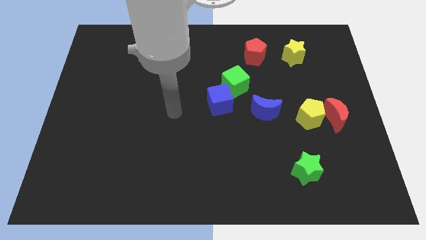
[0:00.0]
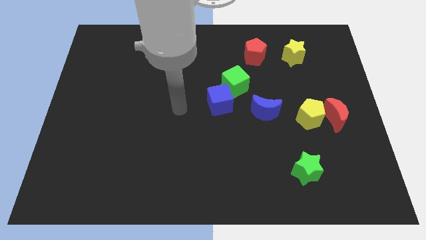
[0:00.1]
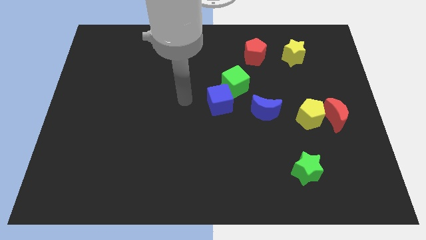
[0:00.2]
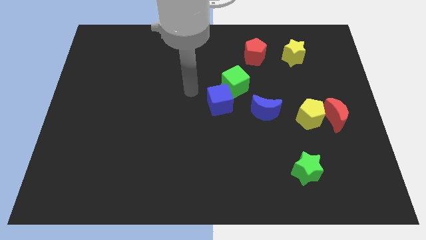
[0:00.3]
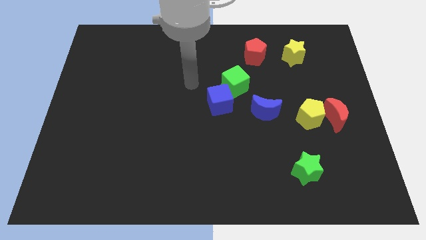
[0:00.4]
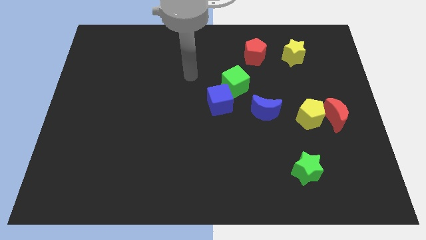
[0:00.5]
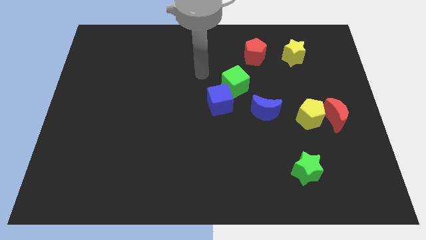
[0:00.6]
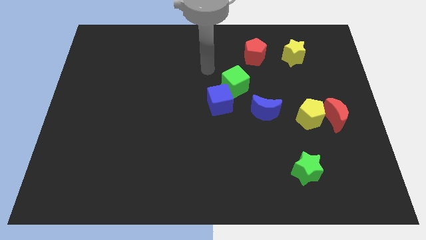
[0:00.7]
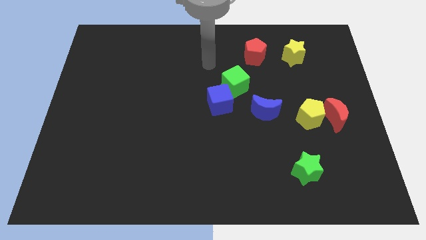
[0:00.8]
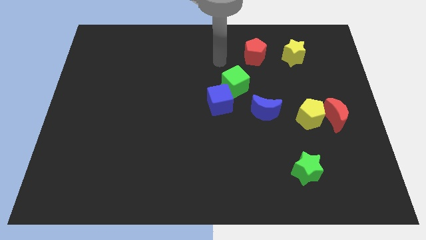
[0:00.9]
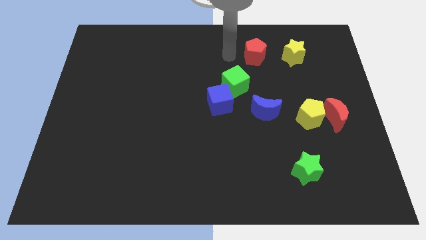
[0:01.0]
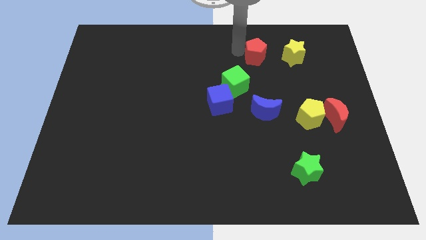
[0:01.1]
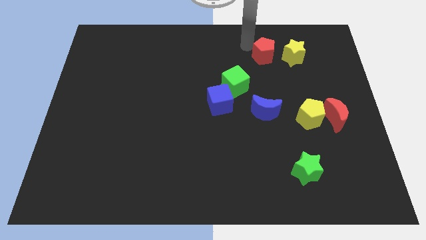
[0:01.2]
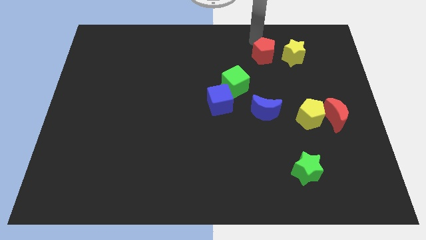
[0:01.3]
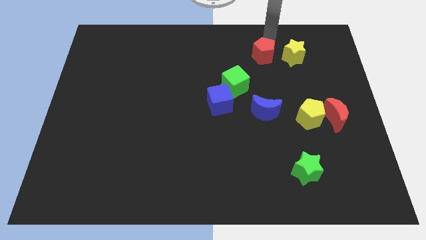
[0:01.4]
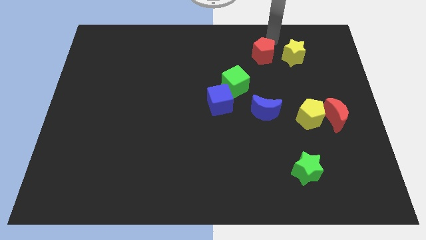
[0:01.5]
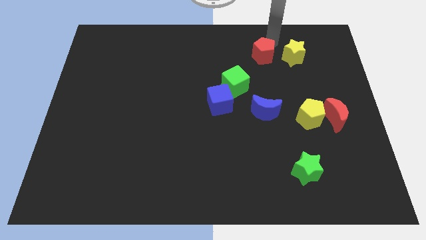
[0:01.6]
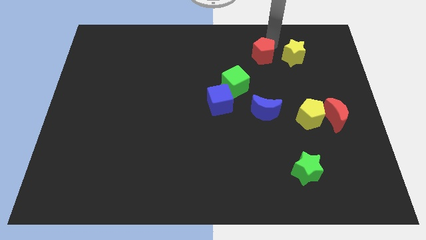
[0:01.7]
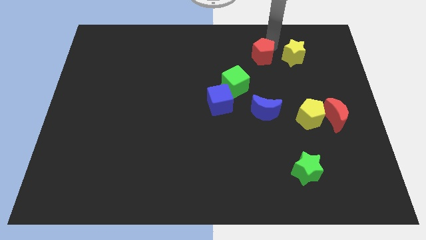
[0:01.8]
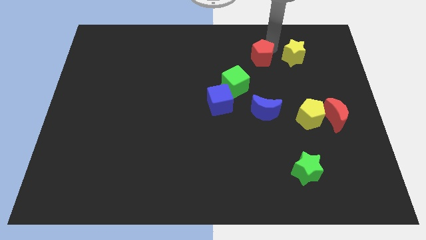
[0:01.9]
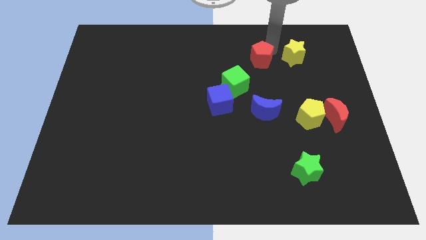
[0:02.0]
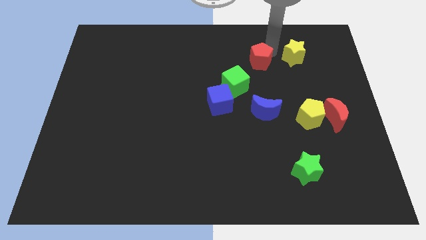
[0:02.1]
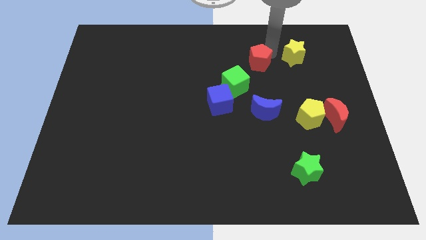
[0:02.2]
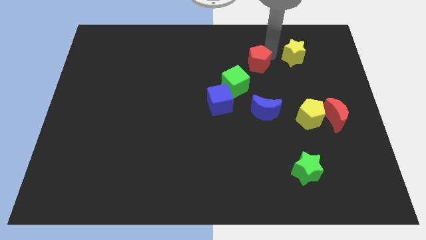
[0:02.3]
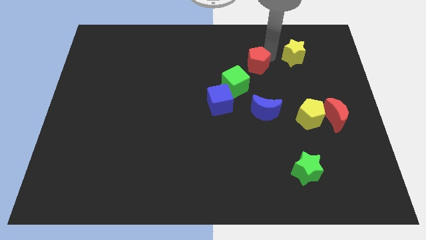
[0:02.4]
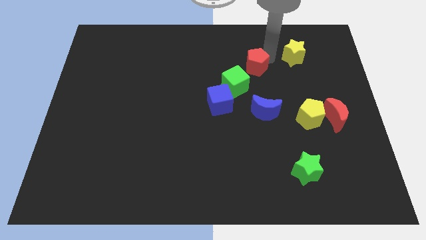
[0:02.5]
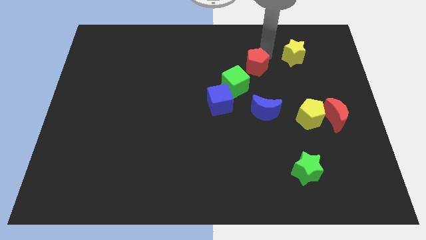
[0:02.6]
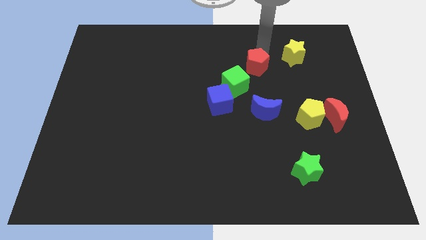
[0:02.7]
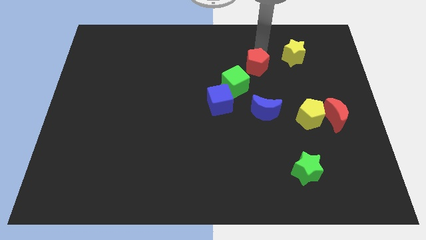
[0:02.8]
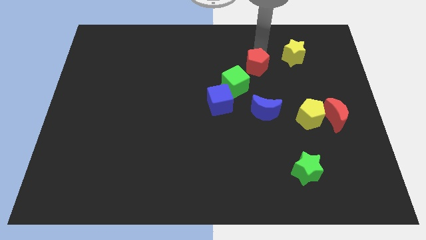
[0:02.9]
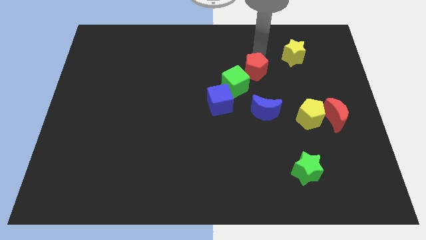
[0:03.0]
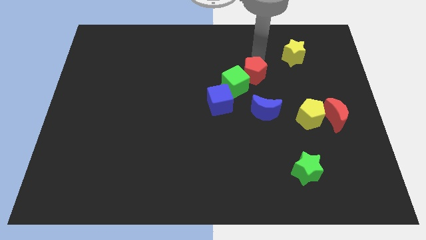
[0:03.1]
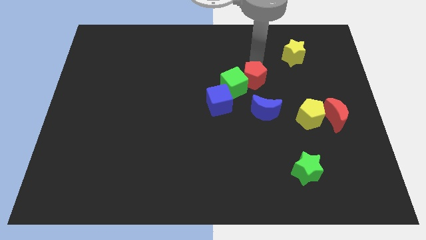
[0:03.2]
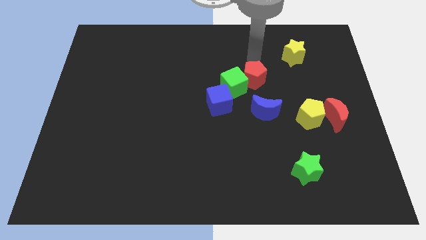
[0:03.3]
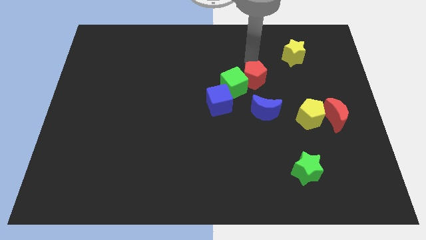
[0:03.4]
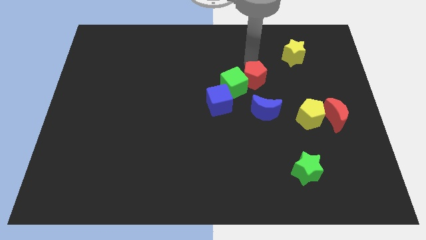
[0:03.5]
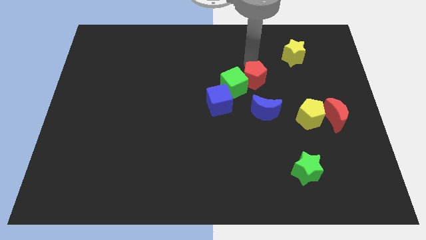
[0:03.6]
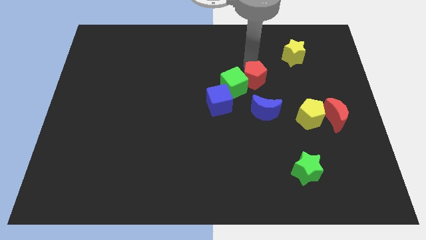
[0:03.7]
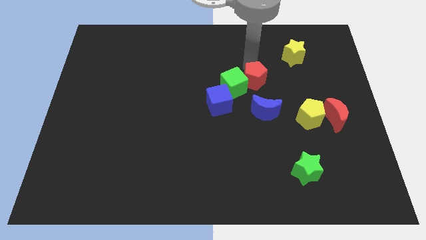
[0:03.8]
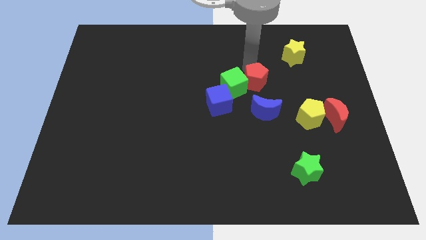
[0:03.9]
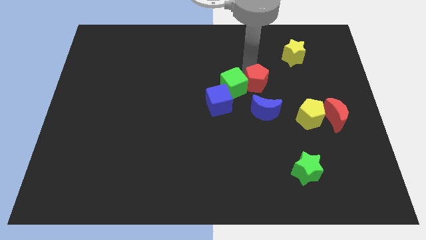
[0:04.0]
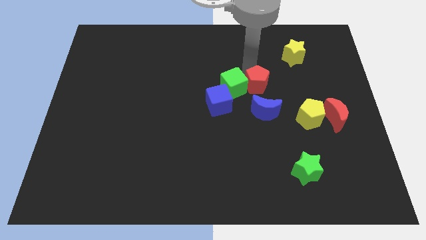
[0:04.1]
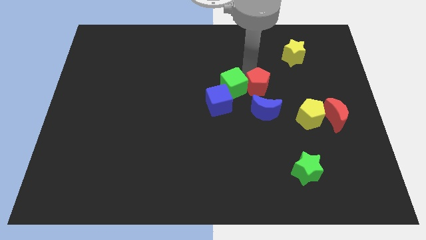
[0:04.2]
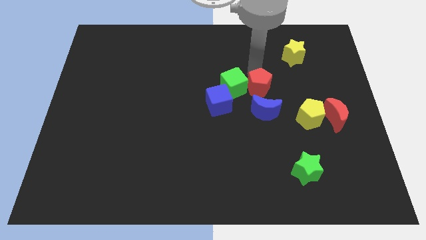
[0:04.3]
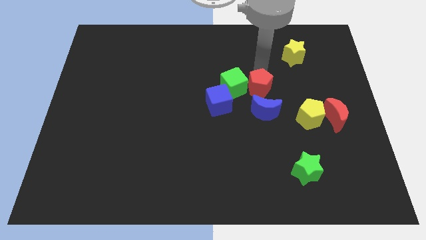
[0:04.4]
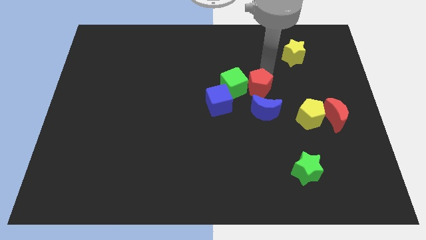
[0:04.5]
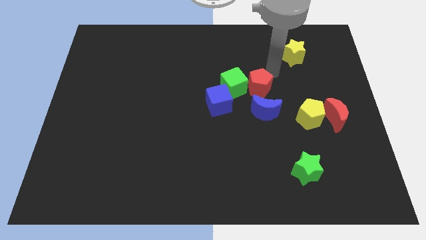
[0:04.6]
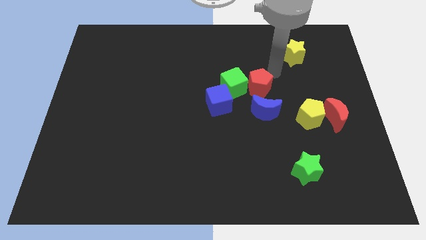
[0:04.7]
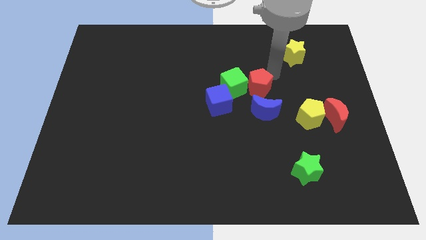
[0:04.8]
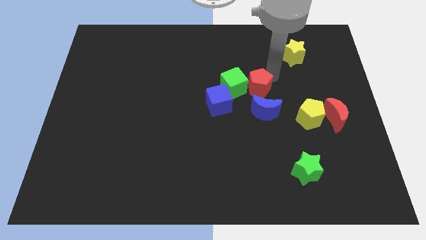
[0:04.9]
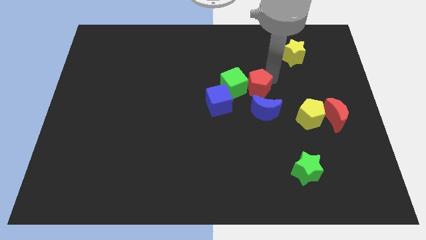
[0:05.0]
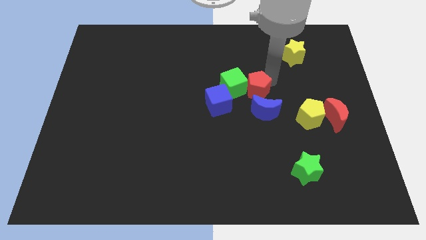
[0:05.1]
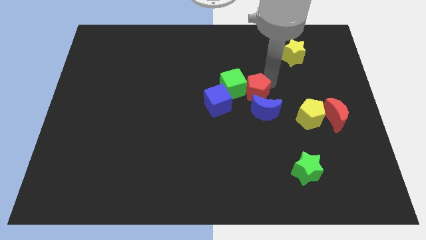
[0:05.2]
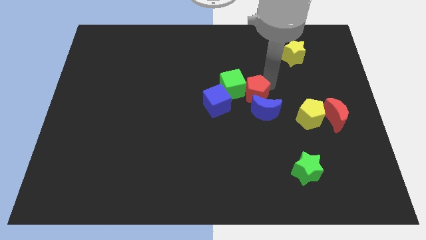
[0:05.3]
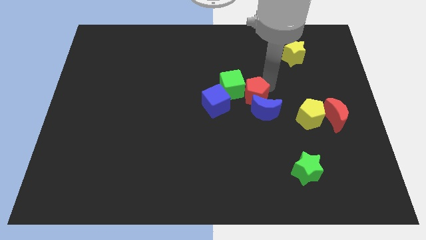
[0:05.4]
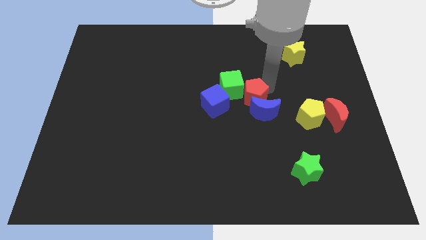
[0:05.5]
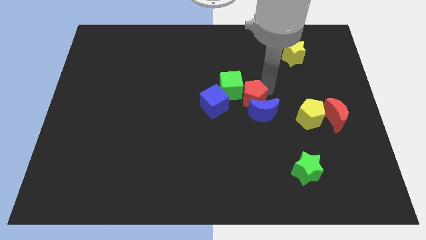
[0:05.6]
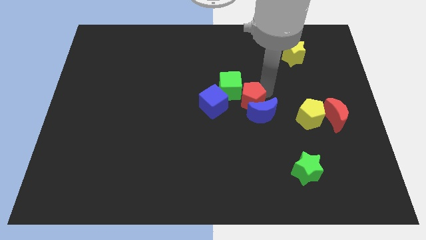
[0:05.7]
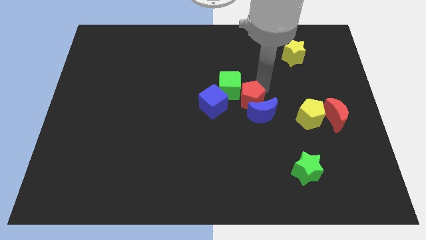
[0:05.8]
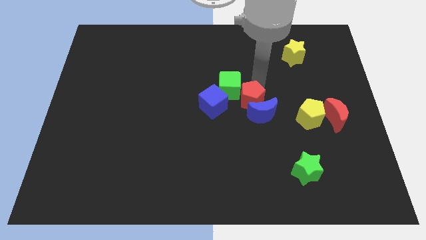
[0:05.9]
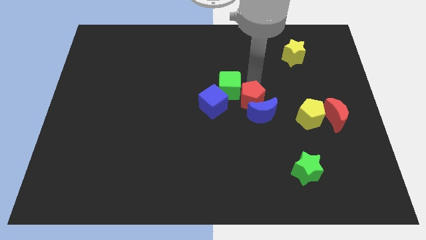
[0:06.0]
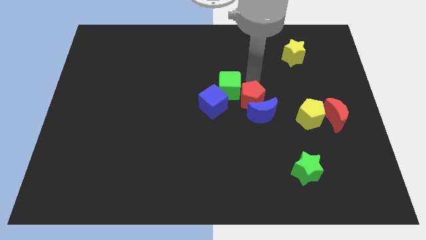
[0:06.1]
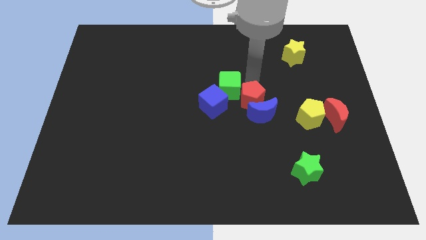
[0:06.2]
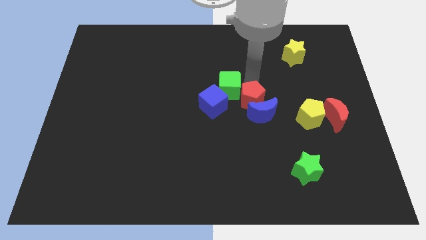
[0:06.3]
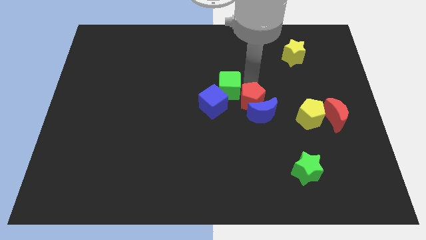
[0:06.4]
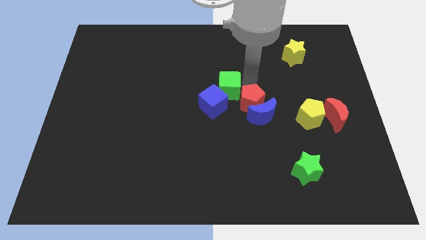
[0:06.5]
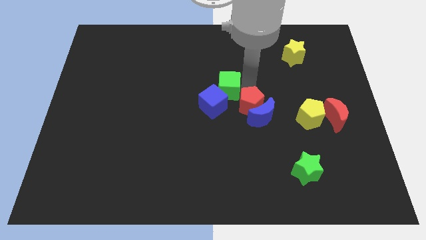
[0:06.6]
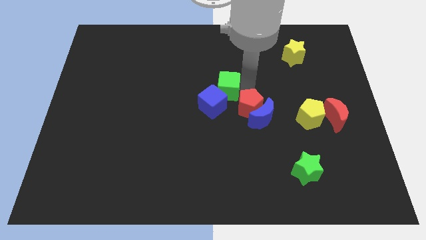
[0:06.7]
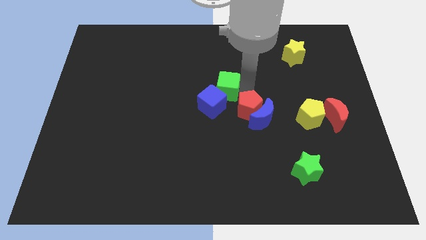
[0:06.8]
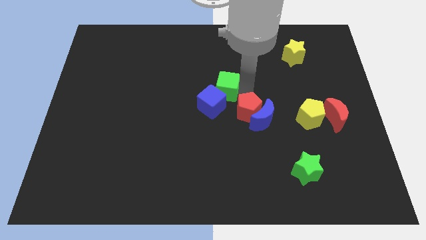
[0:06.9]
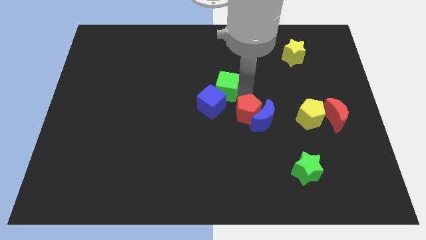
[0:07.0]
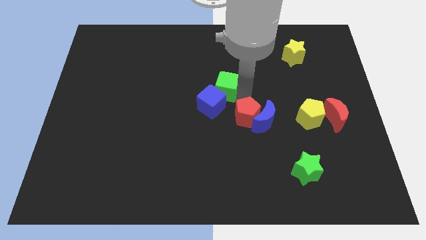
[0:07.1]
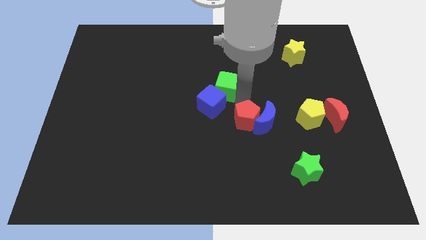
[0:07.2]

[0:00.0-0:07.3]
push the red pentagon down

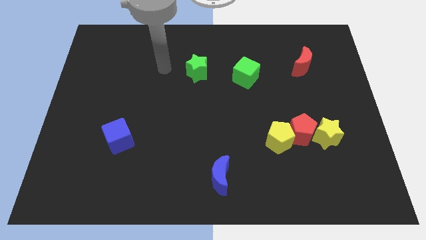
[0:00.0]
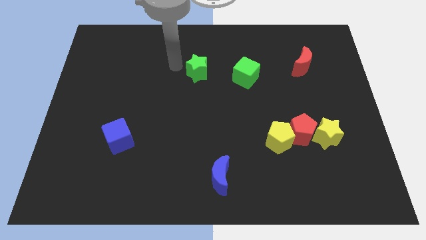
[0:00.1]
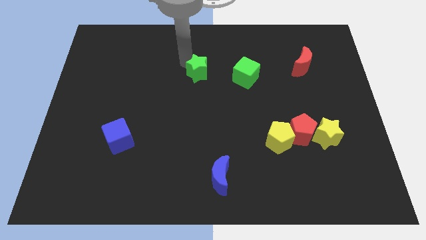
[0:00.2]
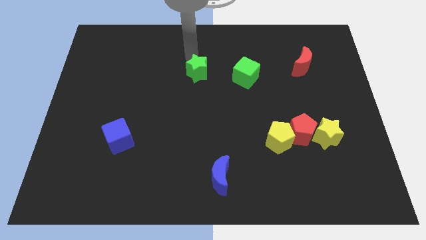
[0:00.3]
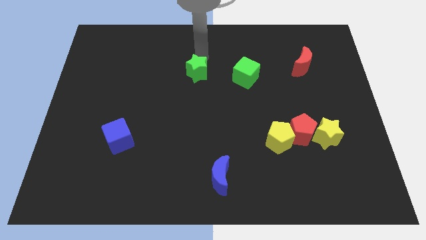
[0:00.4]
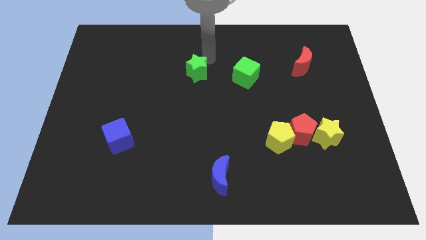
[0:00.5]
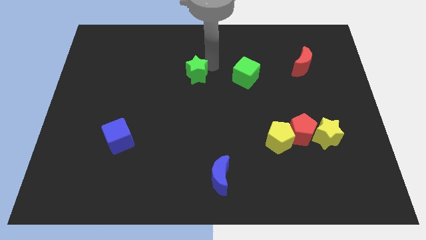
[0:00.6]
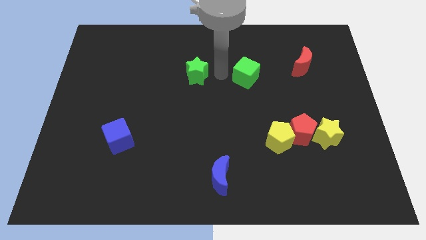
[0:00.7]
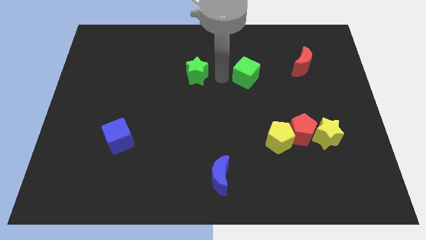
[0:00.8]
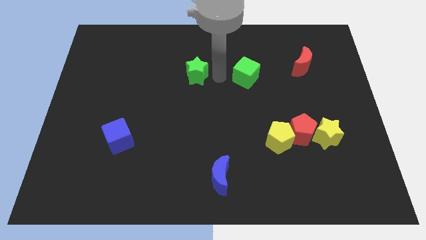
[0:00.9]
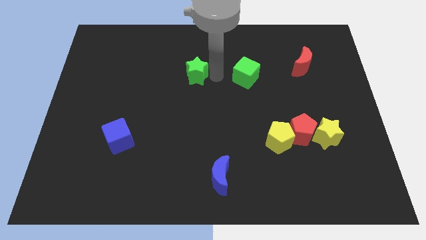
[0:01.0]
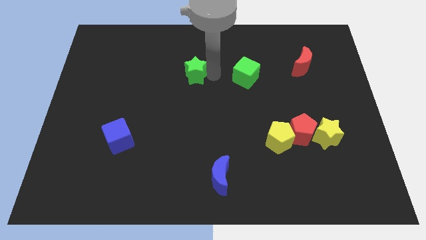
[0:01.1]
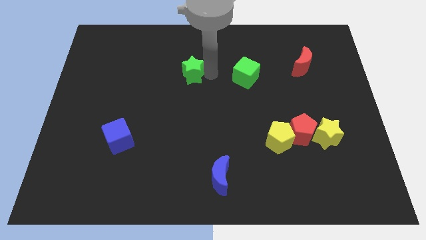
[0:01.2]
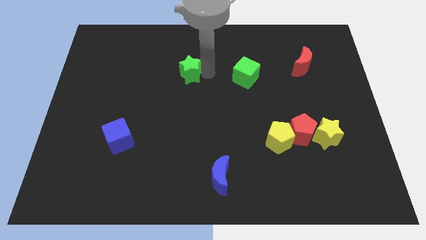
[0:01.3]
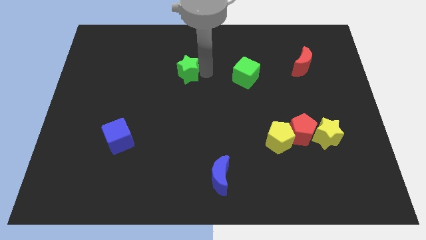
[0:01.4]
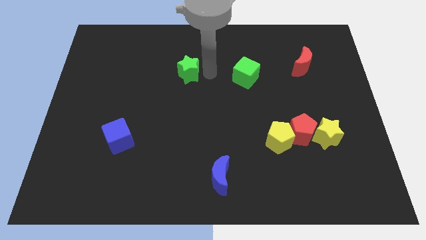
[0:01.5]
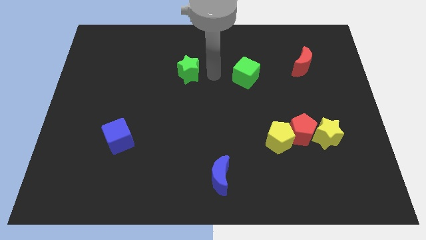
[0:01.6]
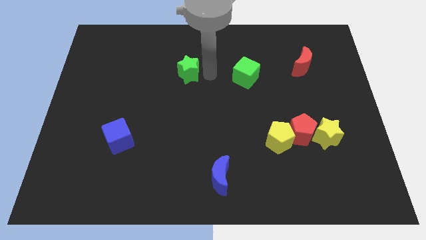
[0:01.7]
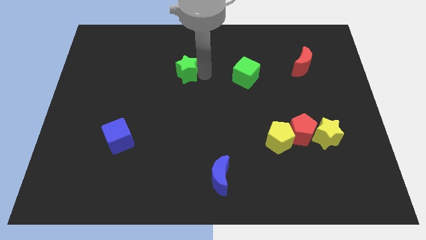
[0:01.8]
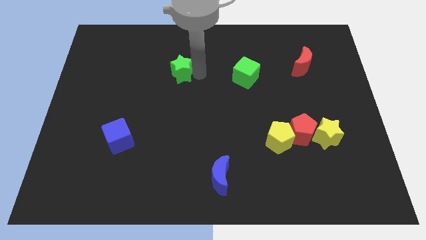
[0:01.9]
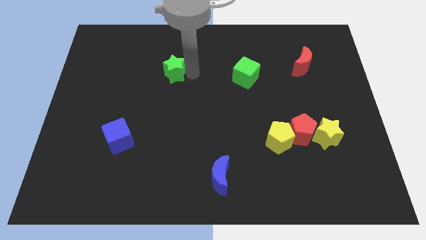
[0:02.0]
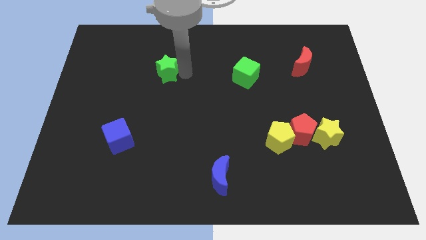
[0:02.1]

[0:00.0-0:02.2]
slightly move the green star to the left
